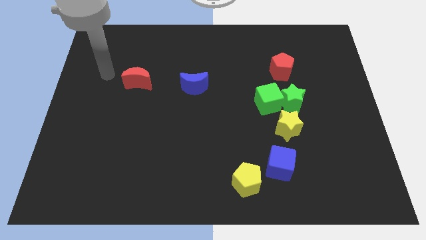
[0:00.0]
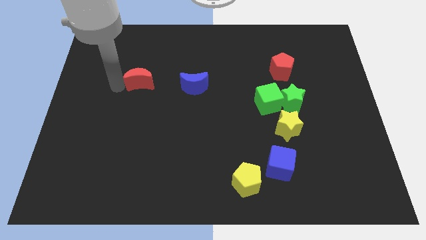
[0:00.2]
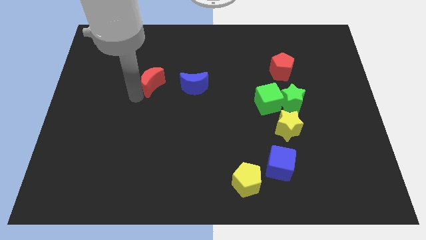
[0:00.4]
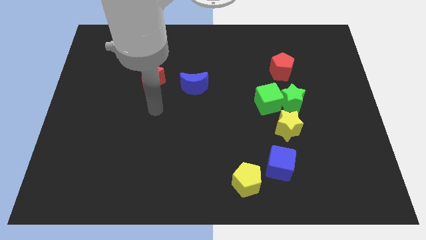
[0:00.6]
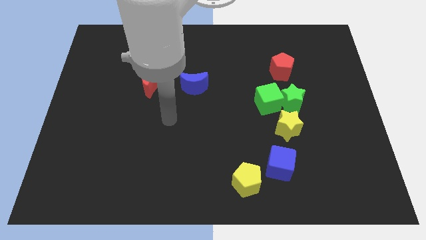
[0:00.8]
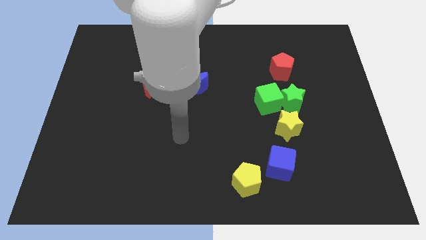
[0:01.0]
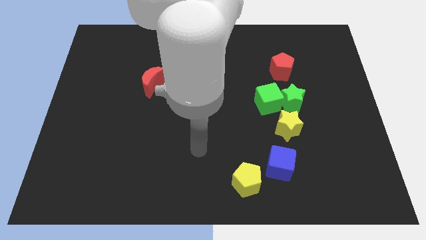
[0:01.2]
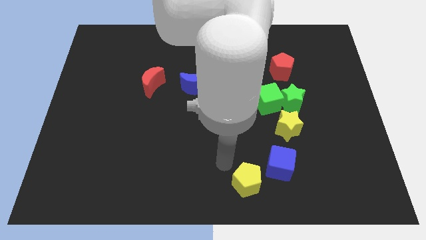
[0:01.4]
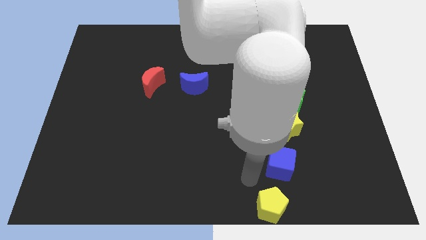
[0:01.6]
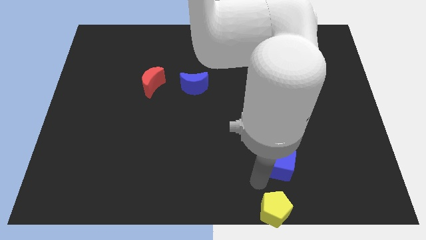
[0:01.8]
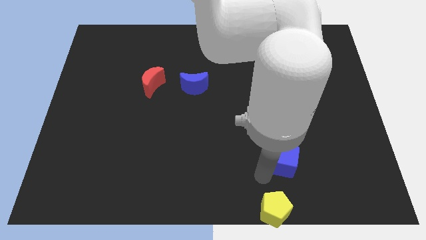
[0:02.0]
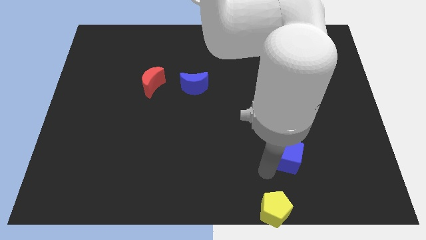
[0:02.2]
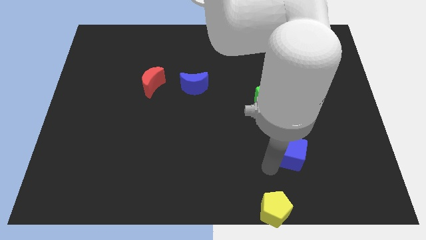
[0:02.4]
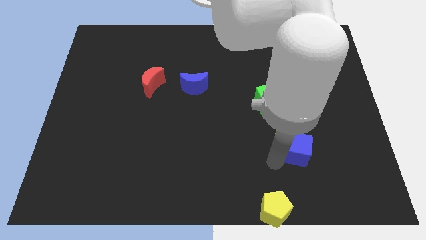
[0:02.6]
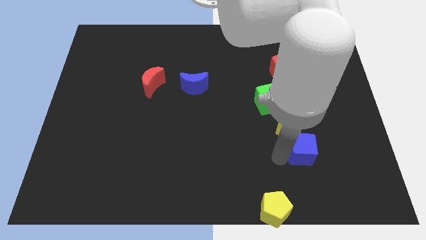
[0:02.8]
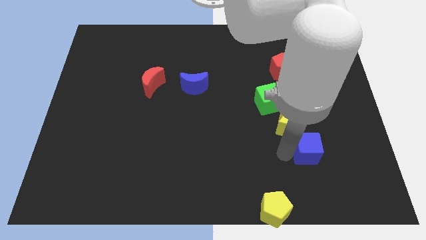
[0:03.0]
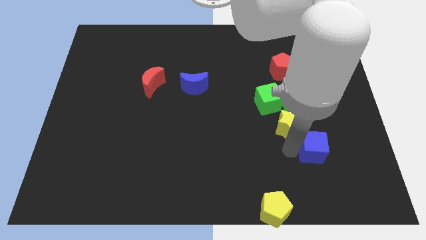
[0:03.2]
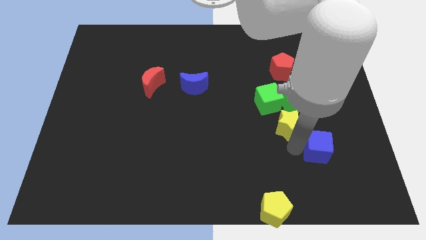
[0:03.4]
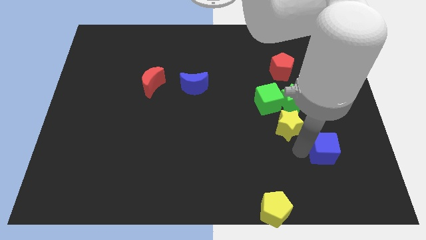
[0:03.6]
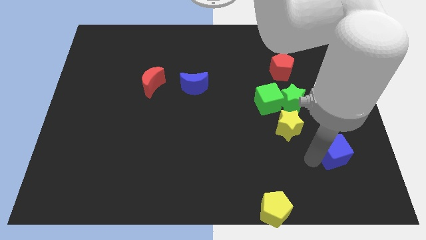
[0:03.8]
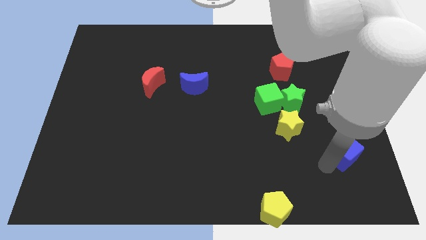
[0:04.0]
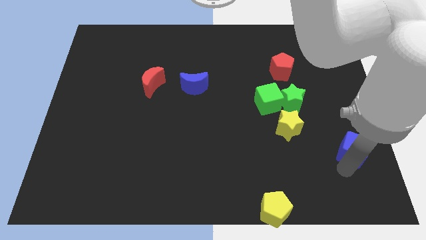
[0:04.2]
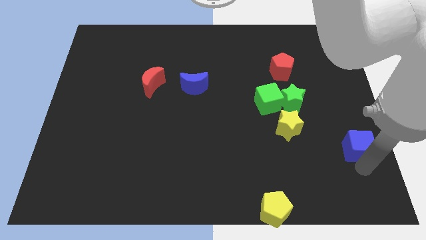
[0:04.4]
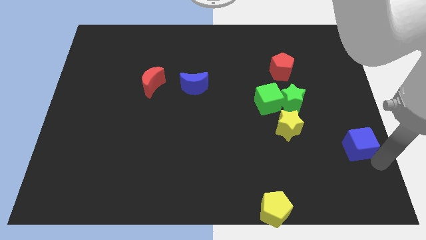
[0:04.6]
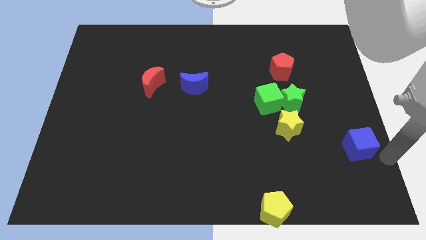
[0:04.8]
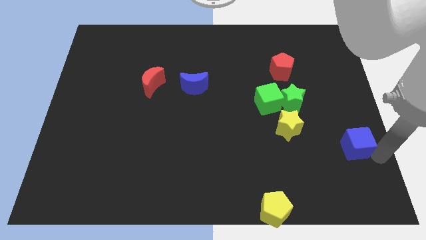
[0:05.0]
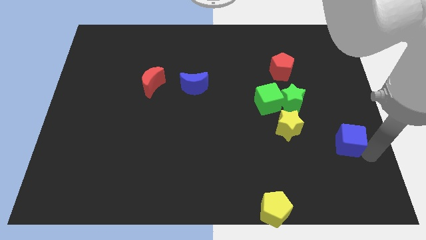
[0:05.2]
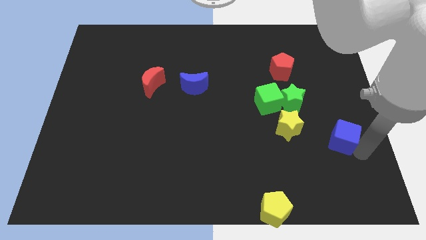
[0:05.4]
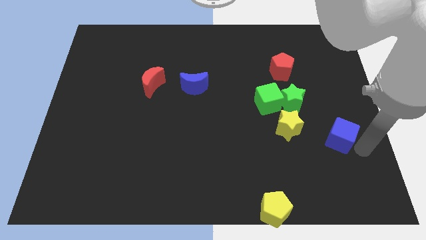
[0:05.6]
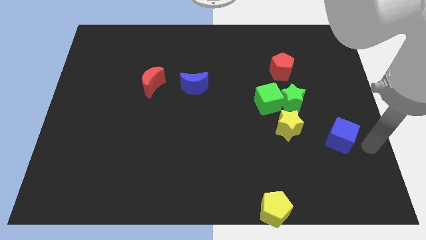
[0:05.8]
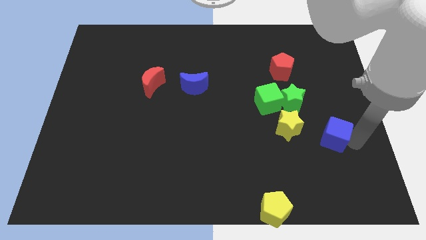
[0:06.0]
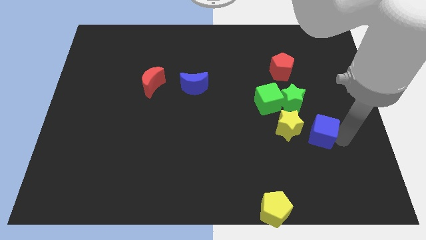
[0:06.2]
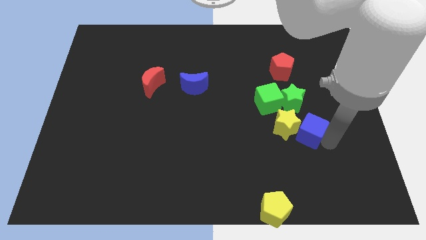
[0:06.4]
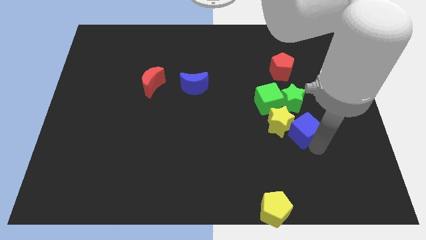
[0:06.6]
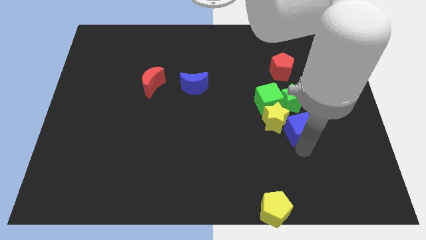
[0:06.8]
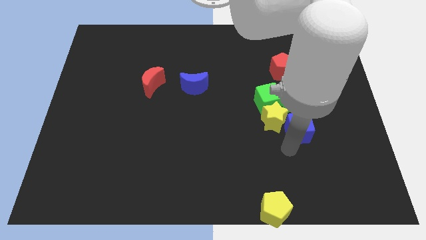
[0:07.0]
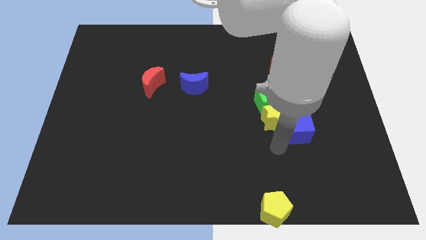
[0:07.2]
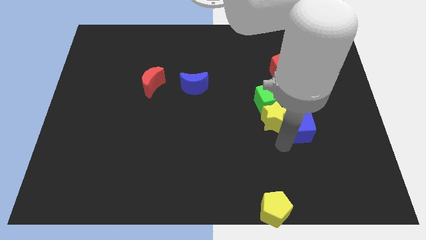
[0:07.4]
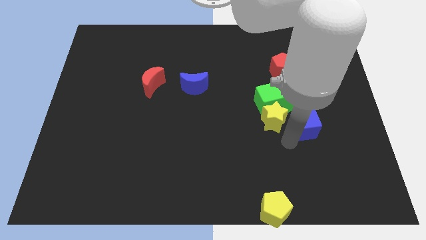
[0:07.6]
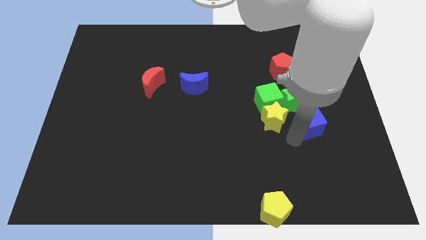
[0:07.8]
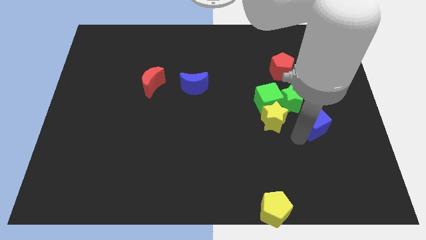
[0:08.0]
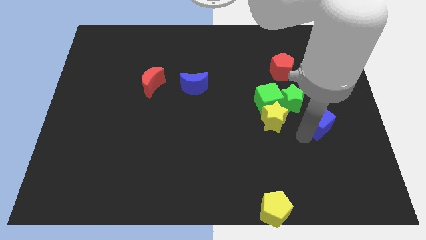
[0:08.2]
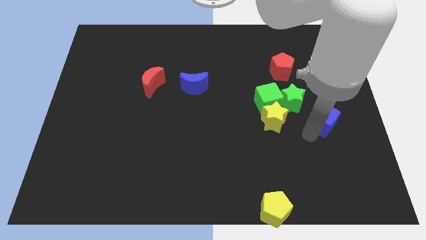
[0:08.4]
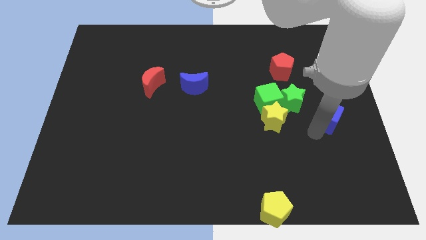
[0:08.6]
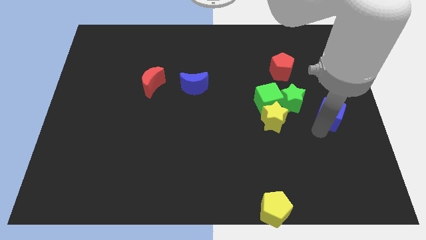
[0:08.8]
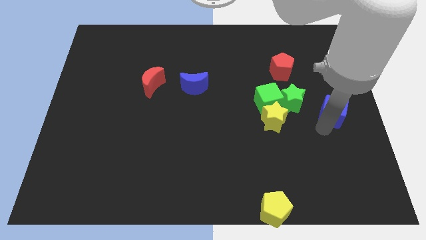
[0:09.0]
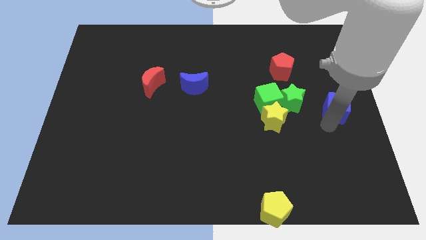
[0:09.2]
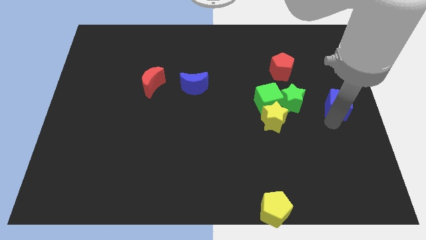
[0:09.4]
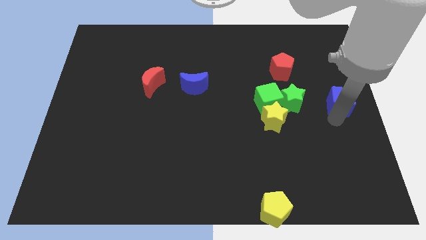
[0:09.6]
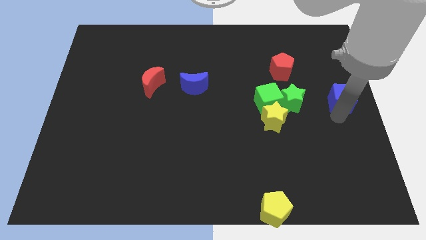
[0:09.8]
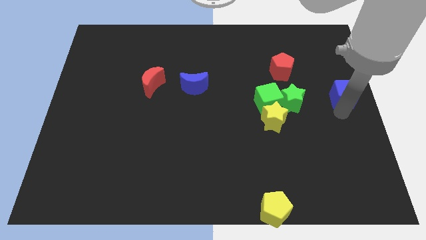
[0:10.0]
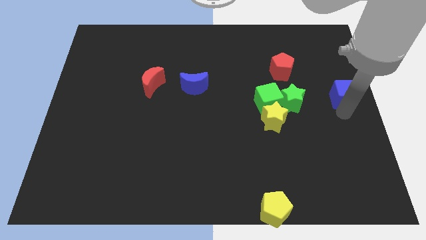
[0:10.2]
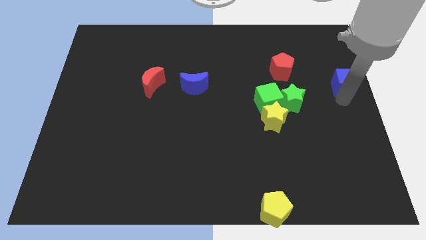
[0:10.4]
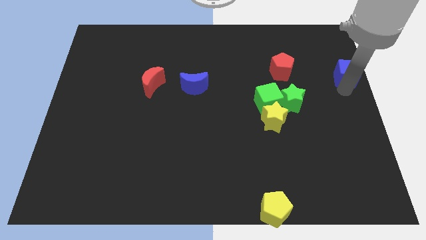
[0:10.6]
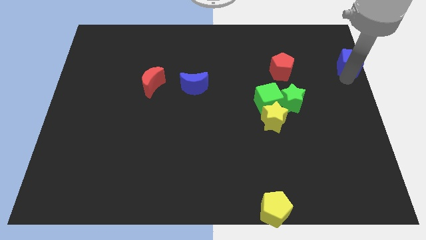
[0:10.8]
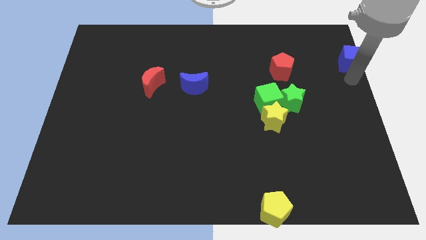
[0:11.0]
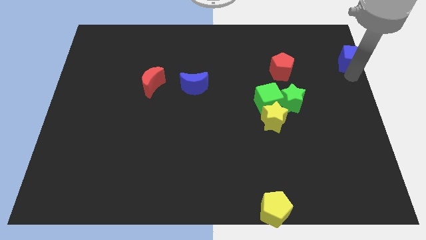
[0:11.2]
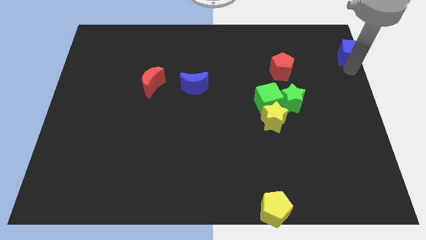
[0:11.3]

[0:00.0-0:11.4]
put the blue cube to the top right corner

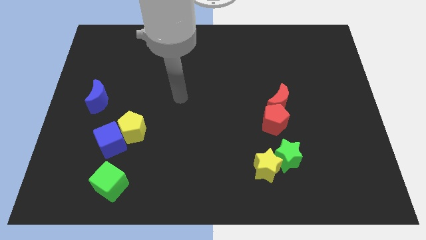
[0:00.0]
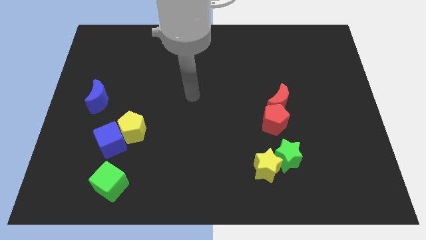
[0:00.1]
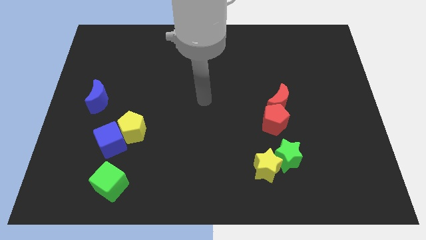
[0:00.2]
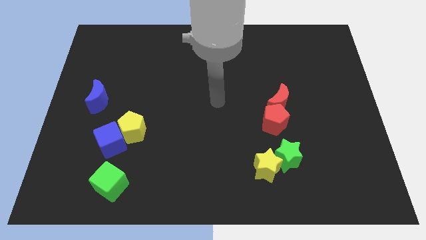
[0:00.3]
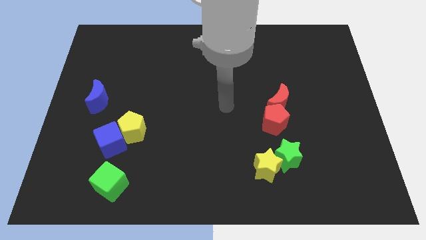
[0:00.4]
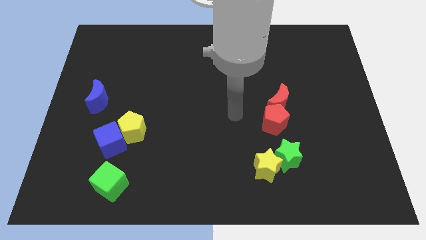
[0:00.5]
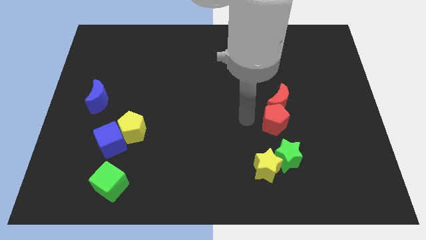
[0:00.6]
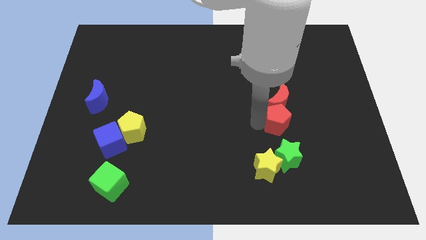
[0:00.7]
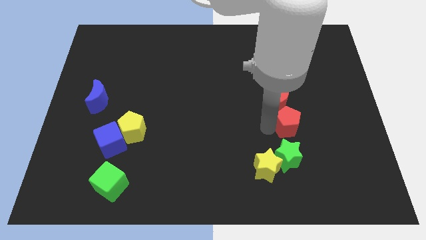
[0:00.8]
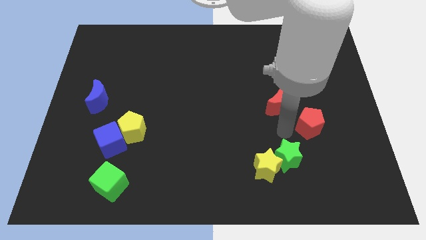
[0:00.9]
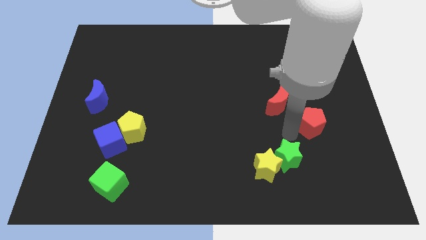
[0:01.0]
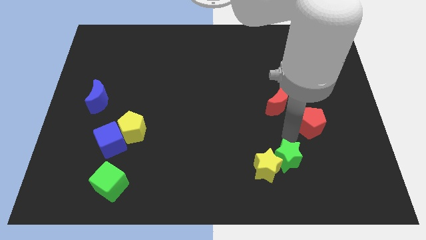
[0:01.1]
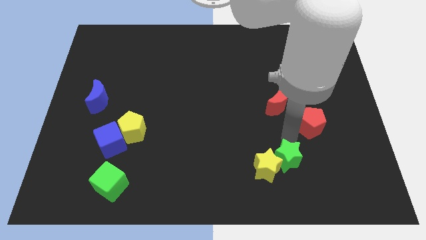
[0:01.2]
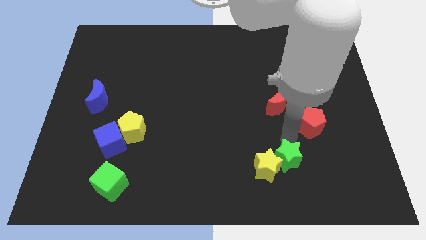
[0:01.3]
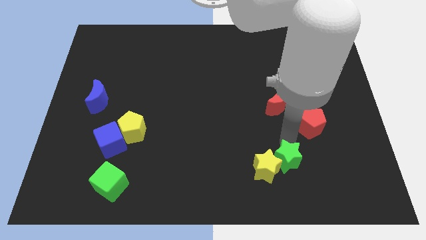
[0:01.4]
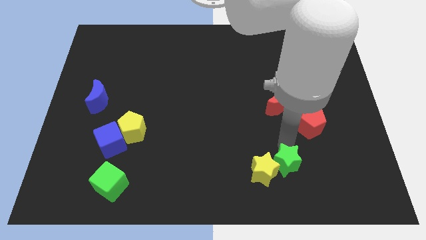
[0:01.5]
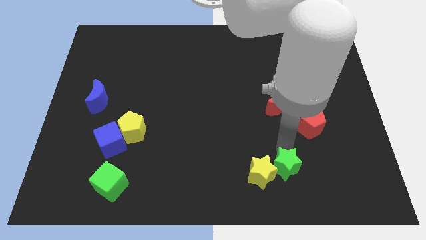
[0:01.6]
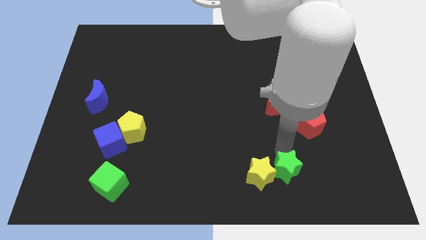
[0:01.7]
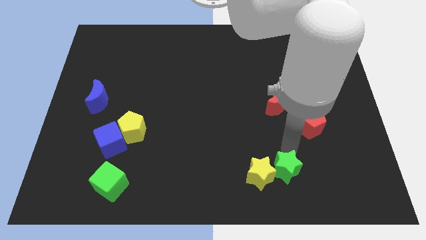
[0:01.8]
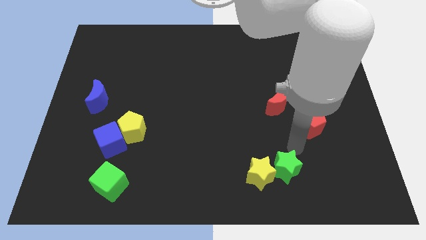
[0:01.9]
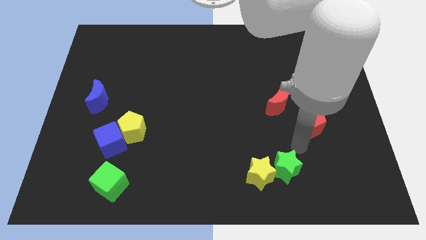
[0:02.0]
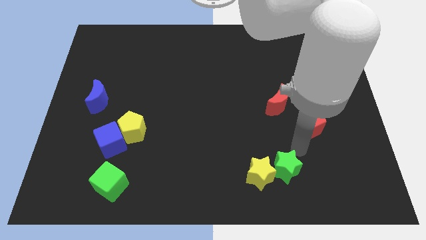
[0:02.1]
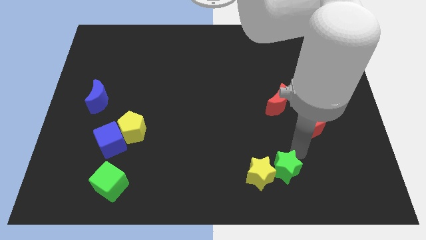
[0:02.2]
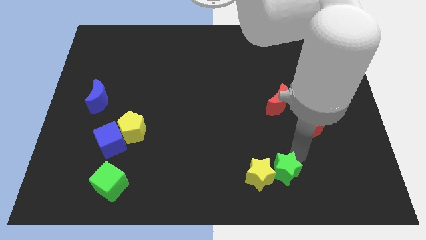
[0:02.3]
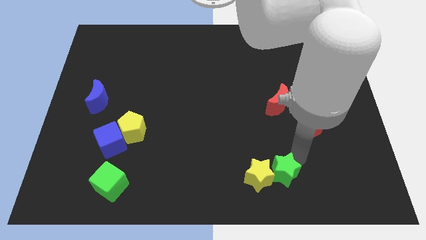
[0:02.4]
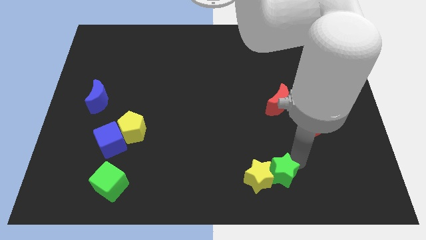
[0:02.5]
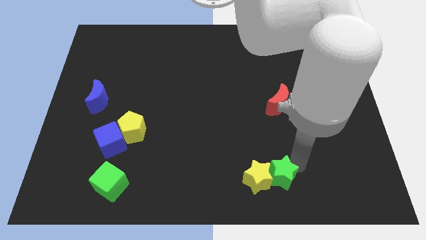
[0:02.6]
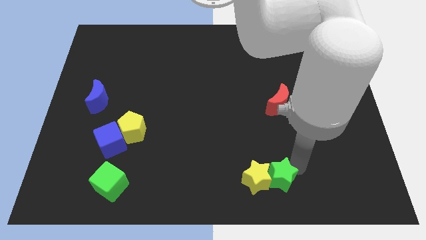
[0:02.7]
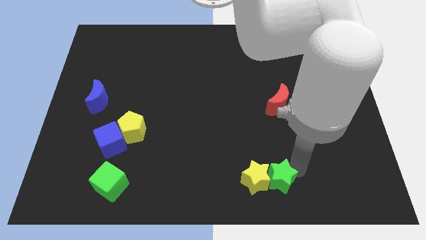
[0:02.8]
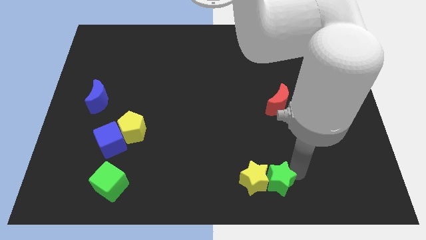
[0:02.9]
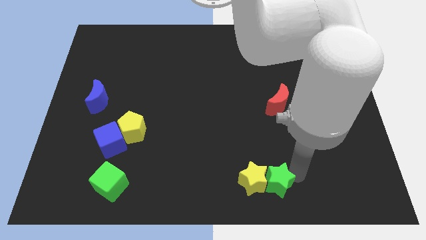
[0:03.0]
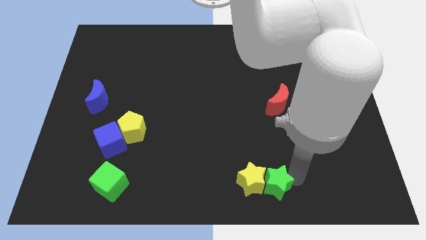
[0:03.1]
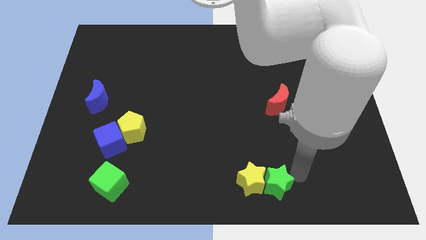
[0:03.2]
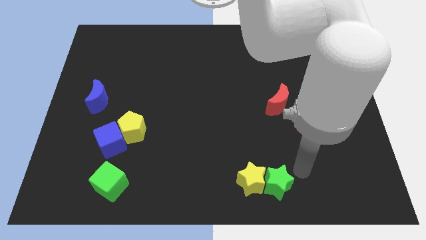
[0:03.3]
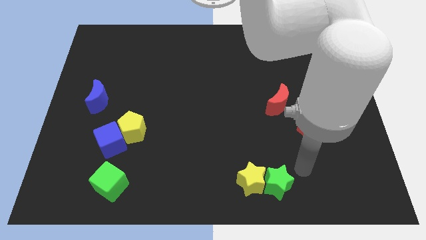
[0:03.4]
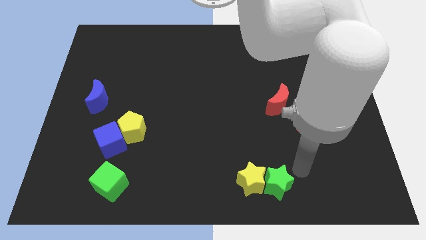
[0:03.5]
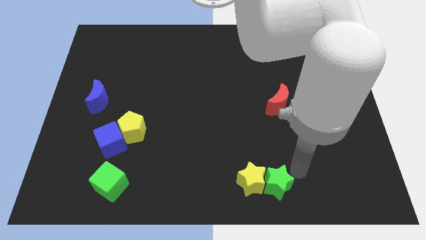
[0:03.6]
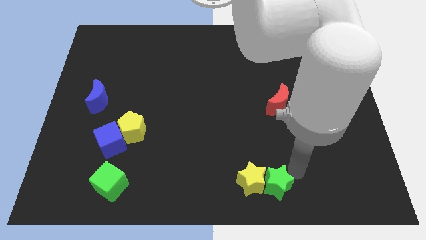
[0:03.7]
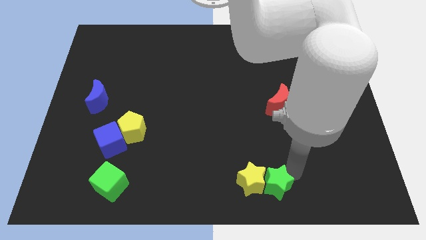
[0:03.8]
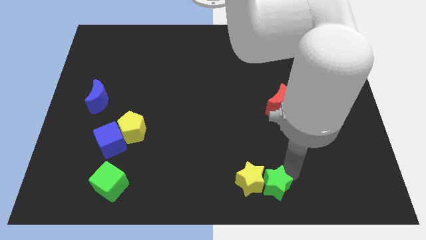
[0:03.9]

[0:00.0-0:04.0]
slide the green star to the bottom side
